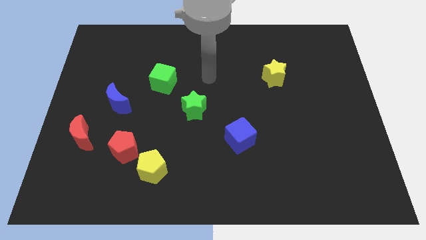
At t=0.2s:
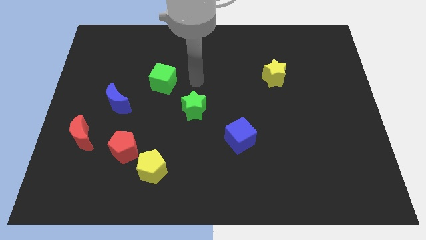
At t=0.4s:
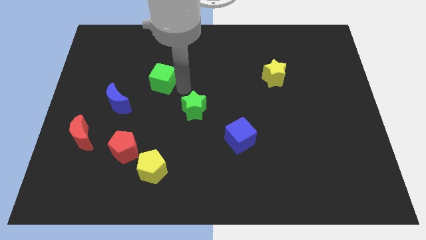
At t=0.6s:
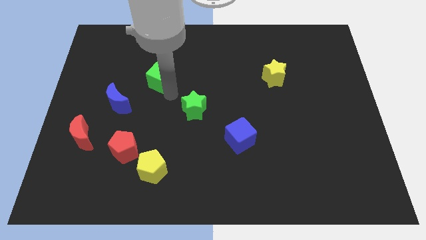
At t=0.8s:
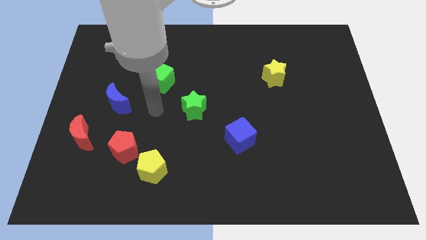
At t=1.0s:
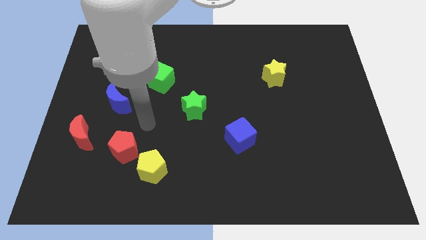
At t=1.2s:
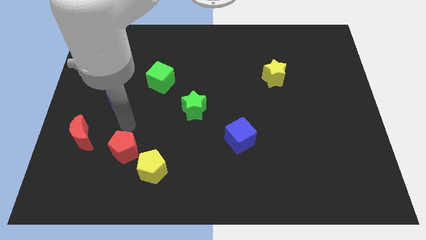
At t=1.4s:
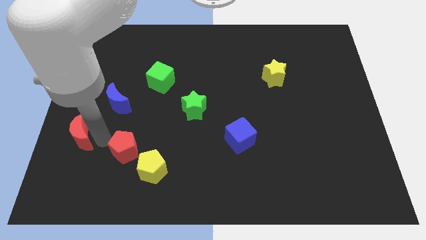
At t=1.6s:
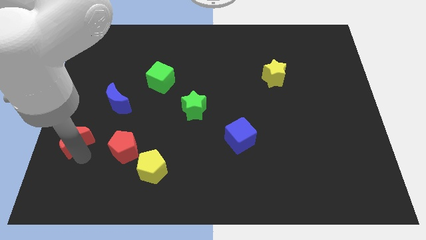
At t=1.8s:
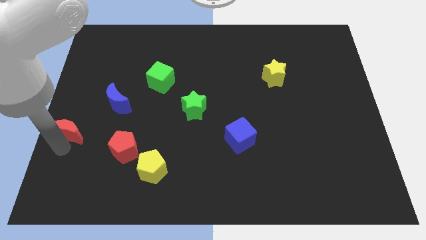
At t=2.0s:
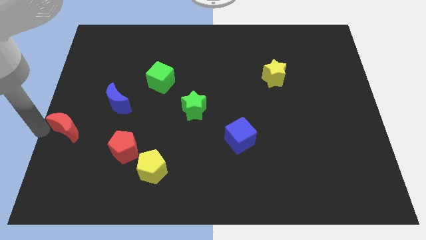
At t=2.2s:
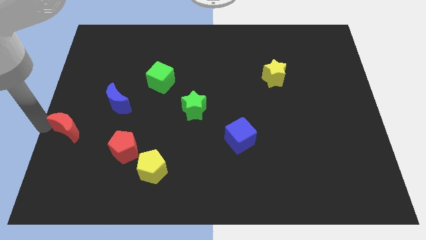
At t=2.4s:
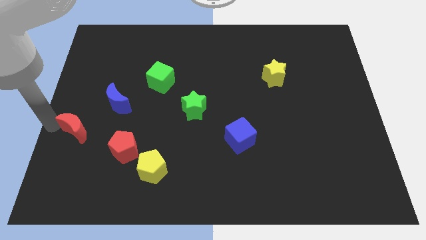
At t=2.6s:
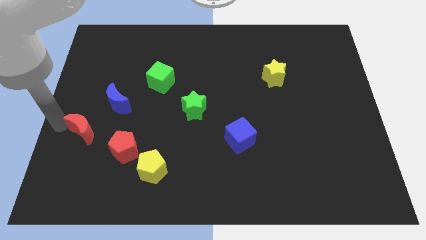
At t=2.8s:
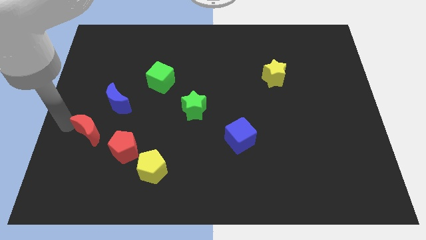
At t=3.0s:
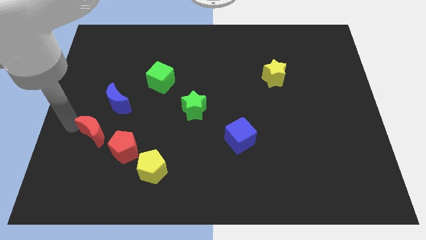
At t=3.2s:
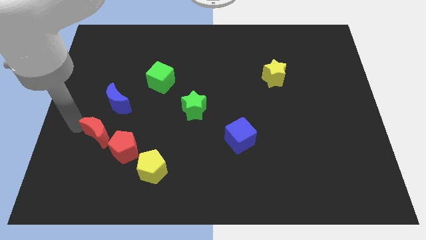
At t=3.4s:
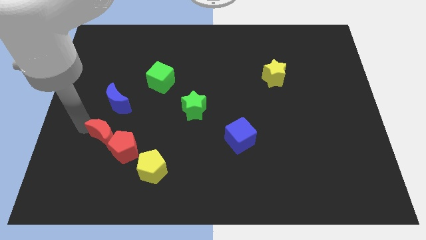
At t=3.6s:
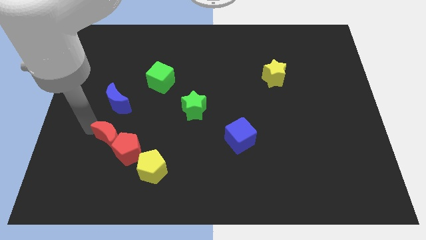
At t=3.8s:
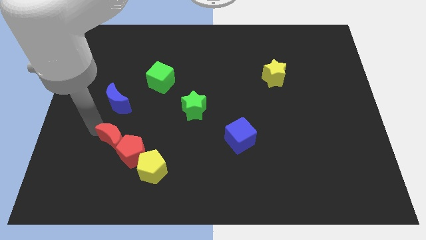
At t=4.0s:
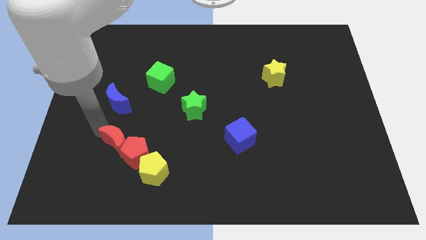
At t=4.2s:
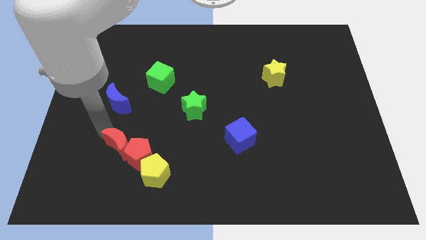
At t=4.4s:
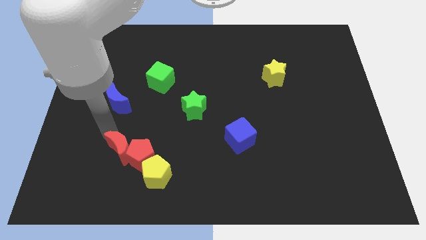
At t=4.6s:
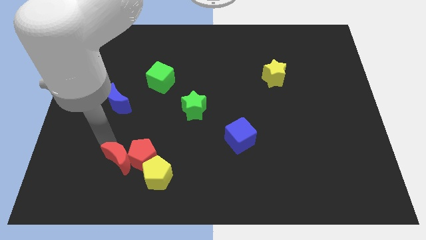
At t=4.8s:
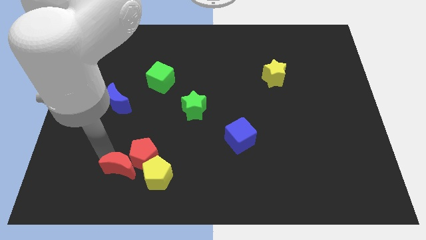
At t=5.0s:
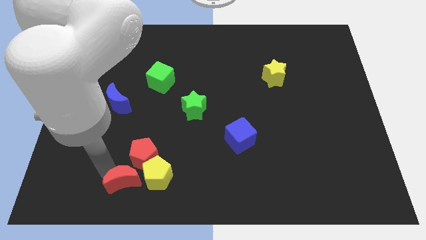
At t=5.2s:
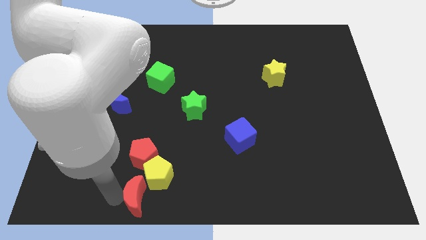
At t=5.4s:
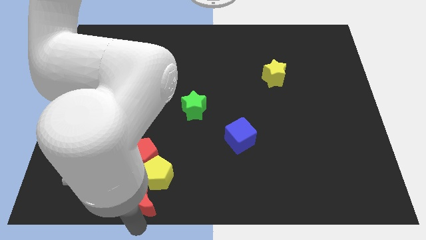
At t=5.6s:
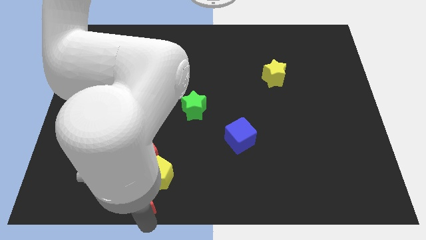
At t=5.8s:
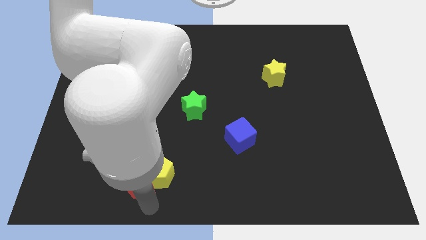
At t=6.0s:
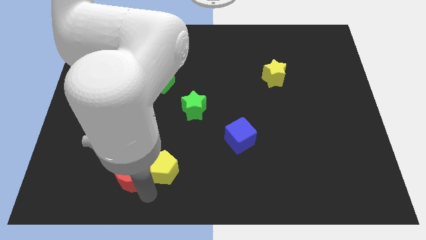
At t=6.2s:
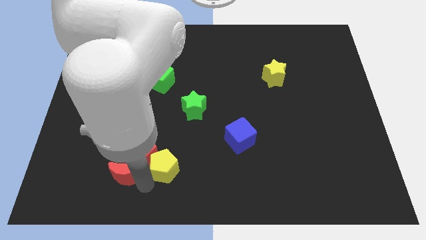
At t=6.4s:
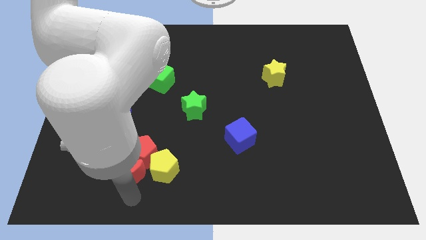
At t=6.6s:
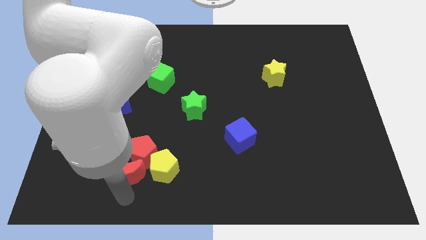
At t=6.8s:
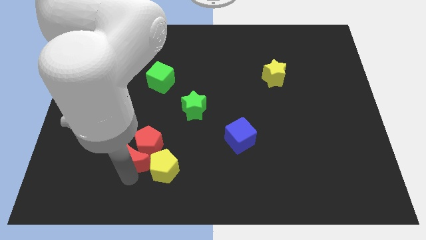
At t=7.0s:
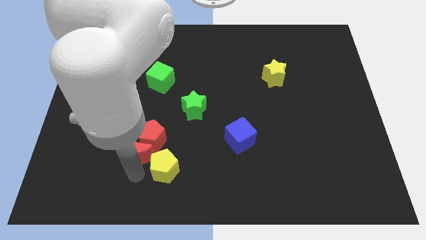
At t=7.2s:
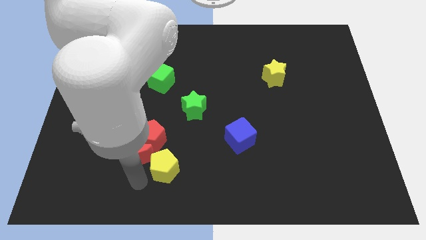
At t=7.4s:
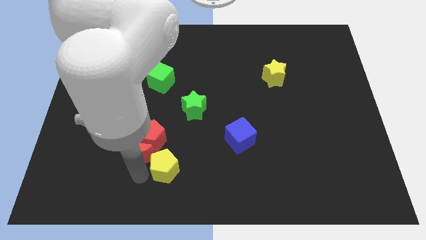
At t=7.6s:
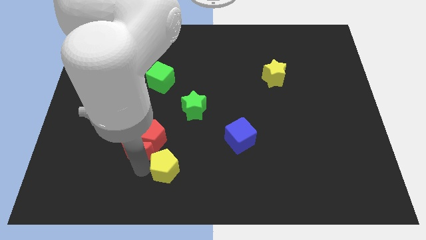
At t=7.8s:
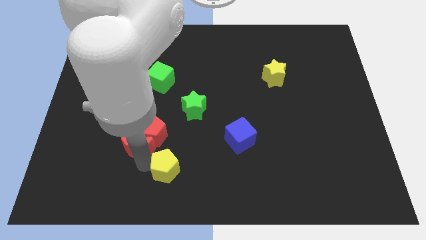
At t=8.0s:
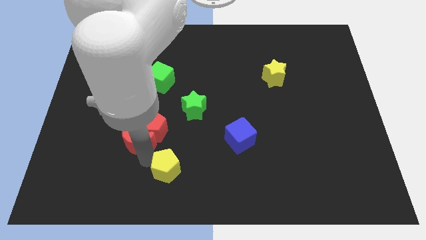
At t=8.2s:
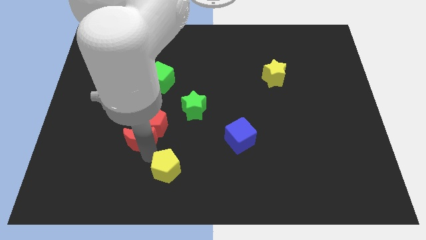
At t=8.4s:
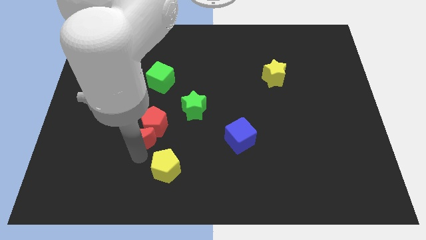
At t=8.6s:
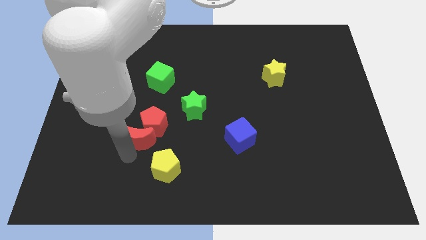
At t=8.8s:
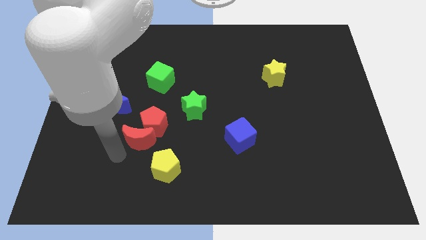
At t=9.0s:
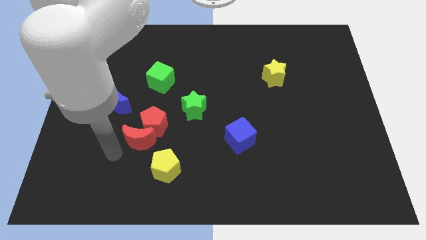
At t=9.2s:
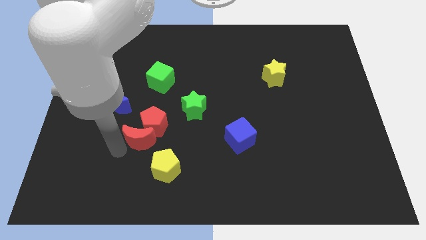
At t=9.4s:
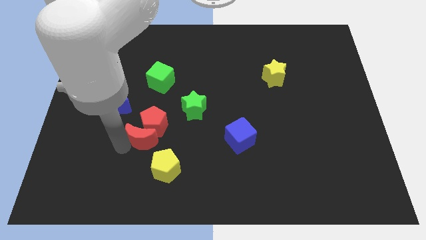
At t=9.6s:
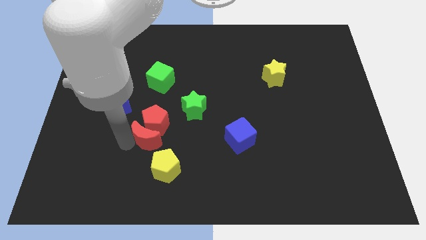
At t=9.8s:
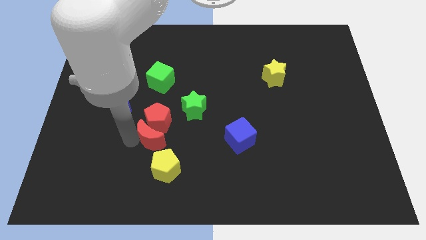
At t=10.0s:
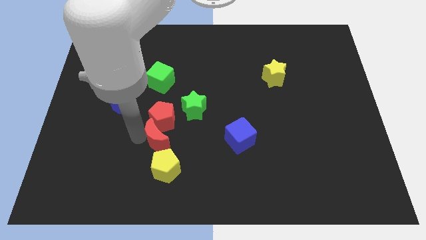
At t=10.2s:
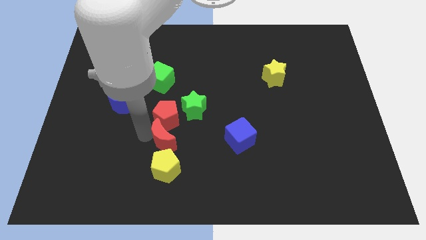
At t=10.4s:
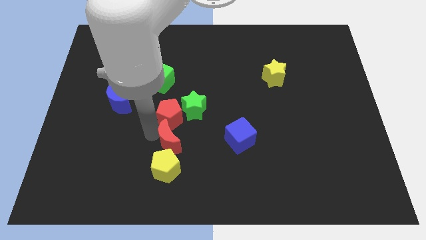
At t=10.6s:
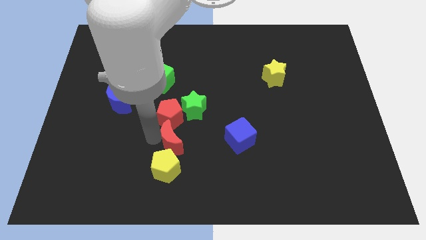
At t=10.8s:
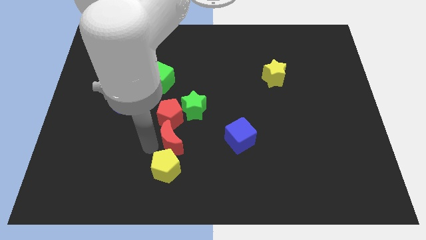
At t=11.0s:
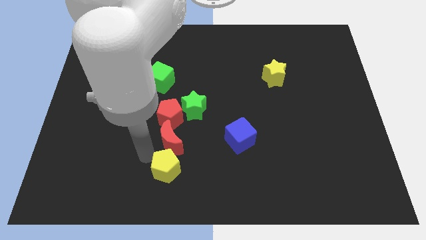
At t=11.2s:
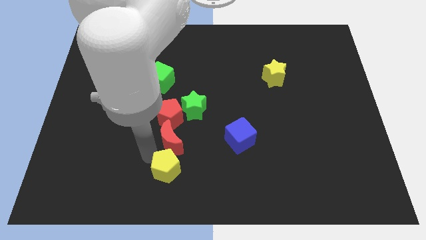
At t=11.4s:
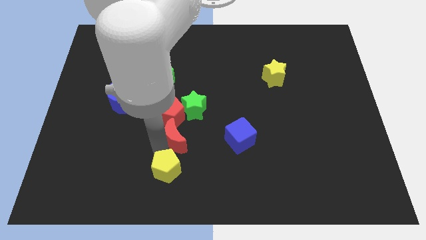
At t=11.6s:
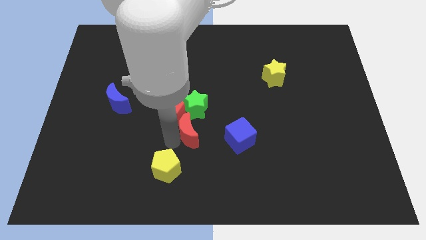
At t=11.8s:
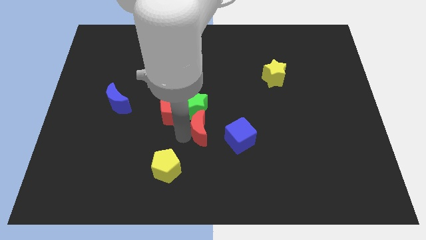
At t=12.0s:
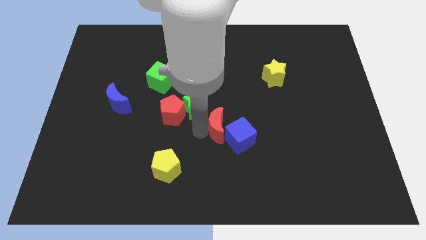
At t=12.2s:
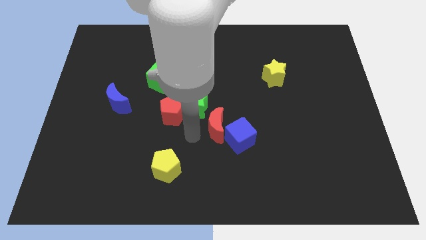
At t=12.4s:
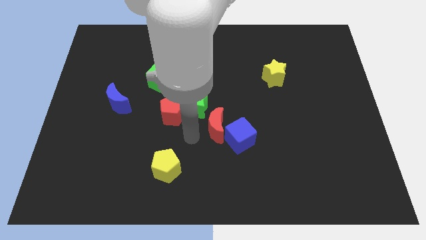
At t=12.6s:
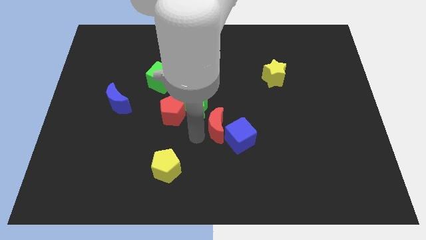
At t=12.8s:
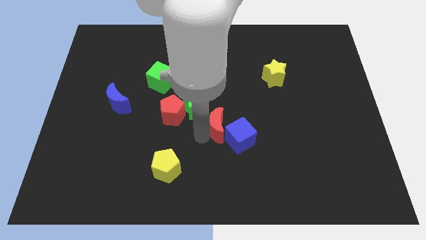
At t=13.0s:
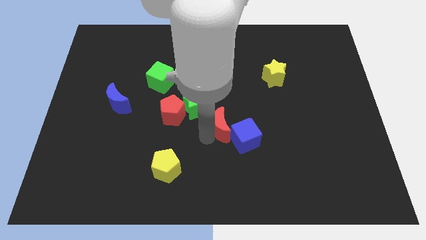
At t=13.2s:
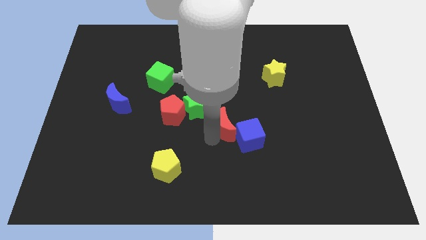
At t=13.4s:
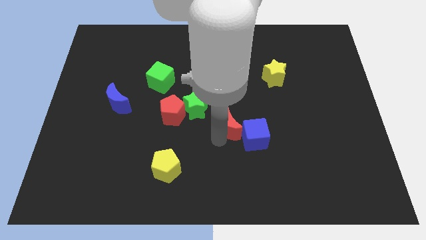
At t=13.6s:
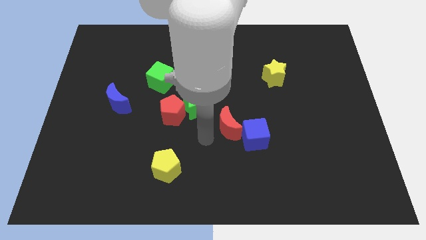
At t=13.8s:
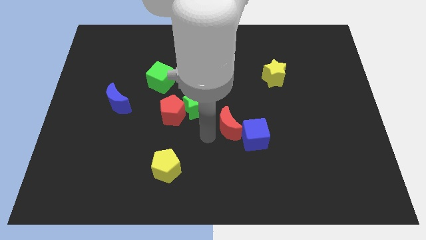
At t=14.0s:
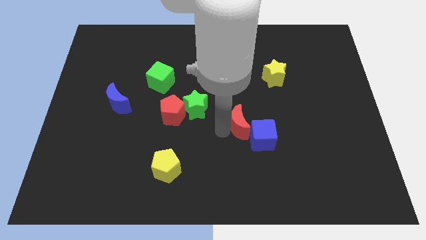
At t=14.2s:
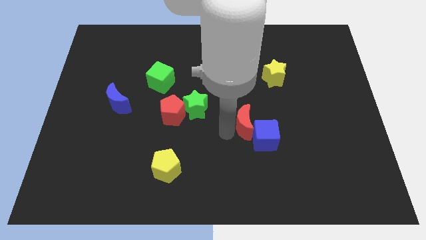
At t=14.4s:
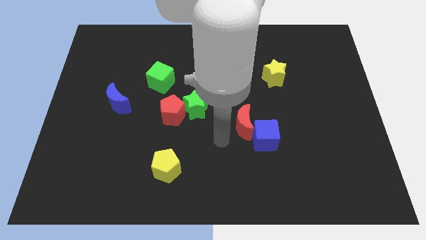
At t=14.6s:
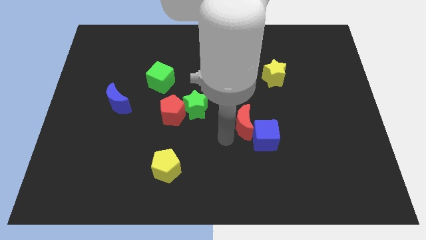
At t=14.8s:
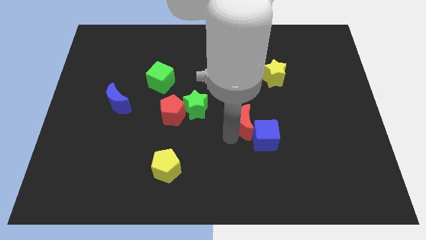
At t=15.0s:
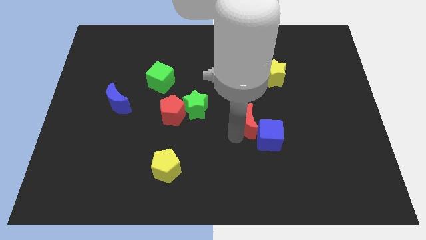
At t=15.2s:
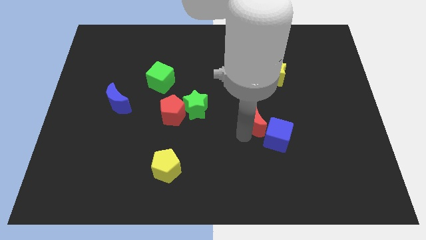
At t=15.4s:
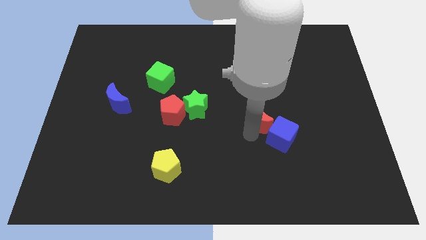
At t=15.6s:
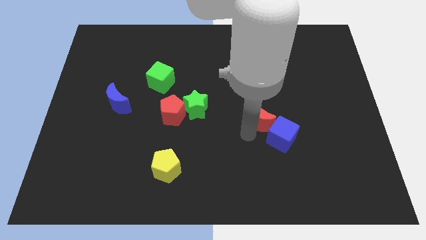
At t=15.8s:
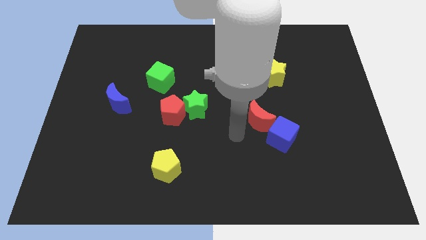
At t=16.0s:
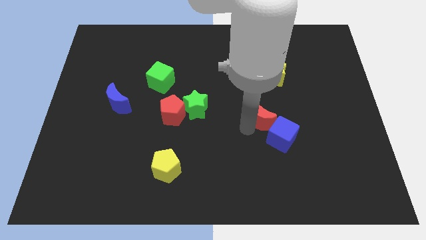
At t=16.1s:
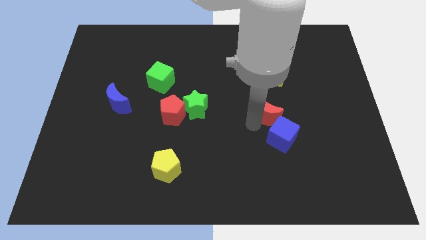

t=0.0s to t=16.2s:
move the red moon to the bottom of the yellow star

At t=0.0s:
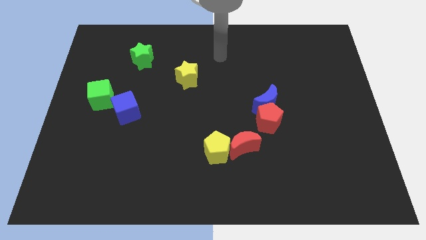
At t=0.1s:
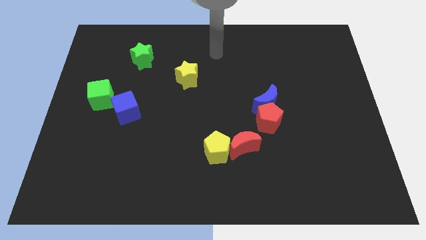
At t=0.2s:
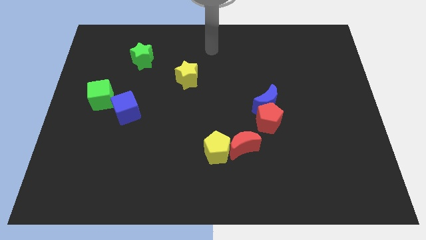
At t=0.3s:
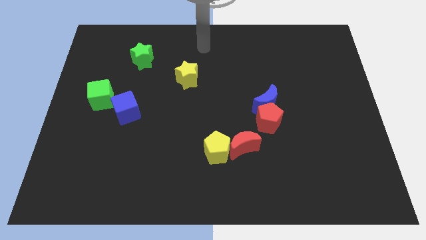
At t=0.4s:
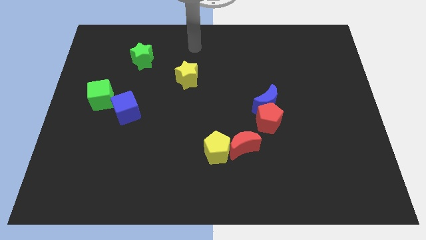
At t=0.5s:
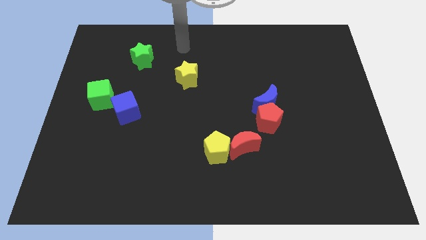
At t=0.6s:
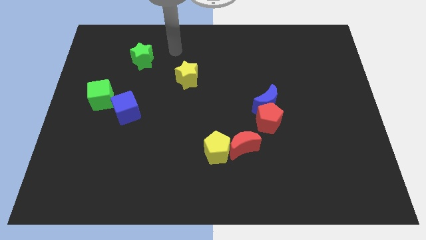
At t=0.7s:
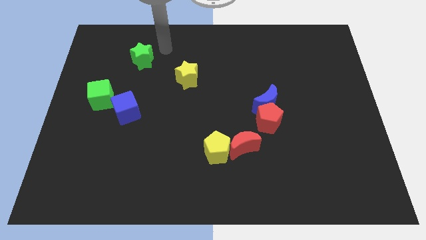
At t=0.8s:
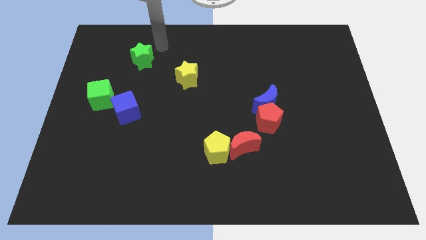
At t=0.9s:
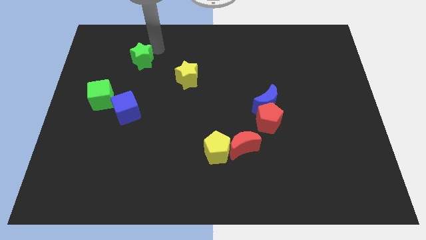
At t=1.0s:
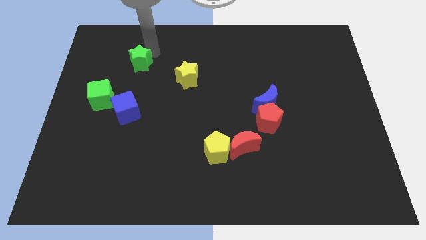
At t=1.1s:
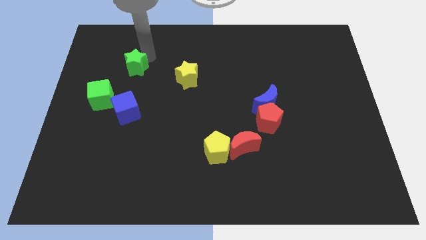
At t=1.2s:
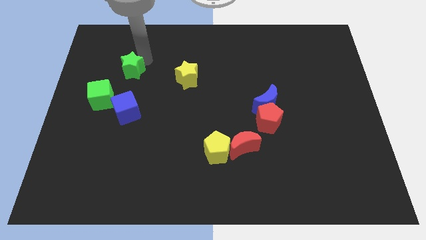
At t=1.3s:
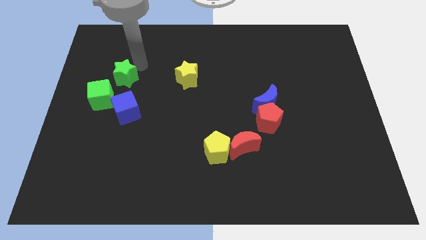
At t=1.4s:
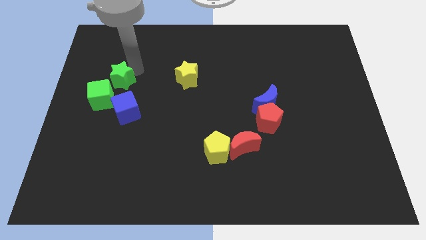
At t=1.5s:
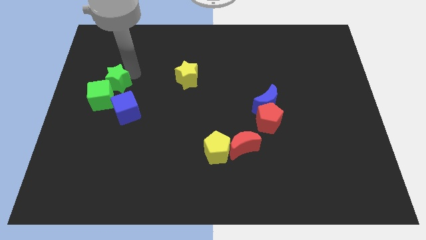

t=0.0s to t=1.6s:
slide the green star to the top left side of the blue cube
